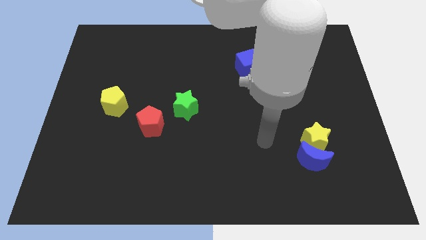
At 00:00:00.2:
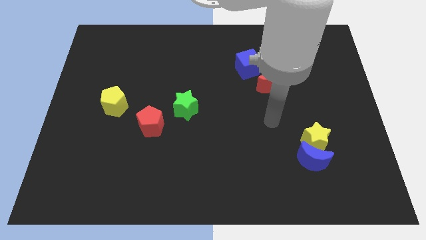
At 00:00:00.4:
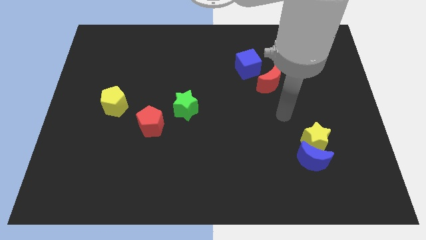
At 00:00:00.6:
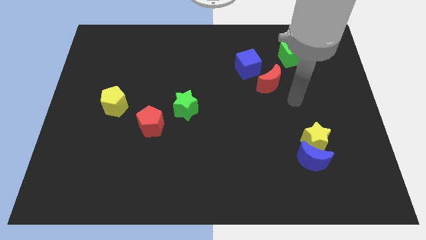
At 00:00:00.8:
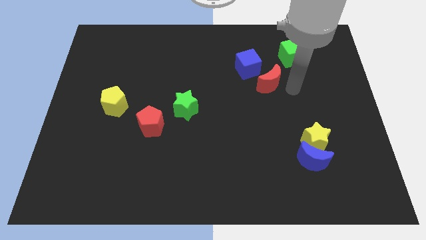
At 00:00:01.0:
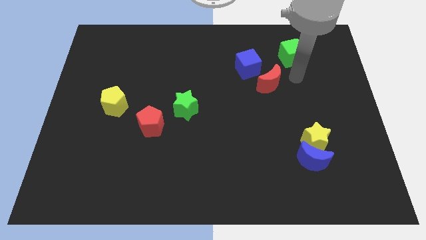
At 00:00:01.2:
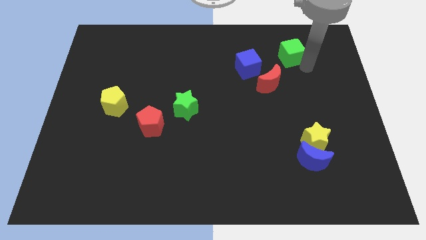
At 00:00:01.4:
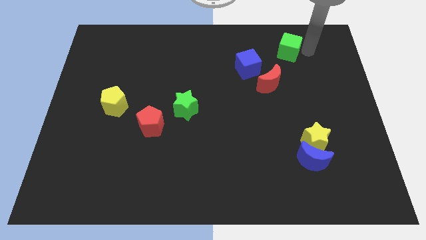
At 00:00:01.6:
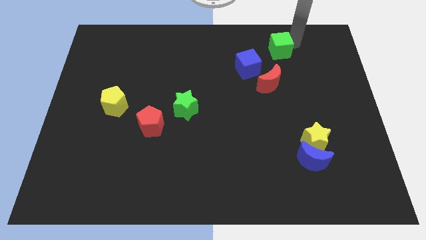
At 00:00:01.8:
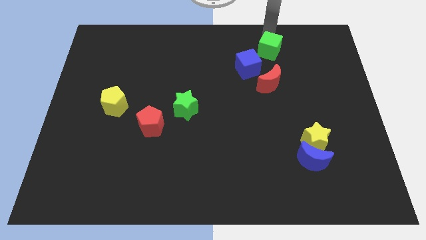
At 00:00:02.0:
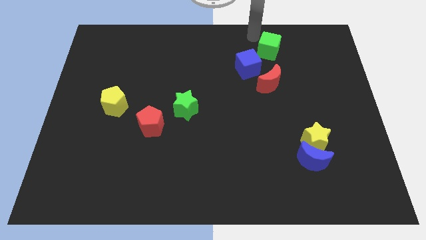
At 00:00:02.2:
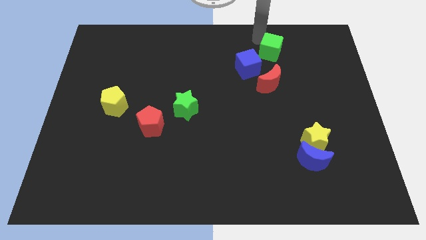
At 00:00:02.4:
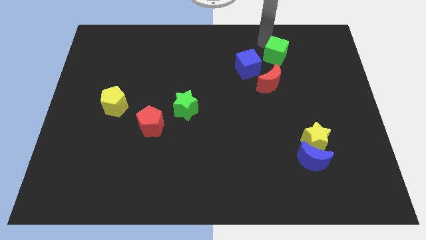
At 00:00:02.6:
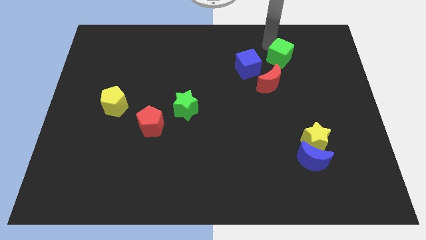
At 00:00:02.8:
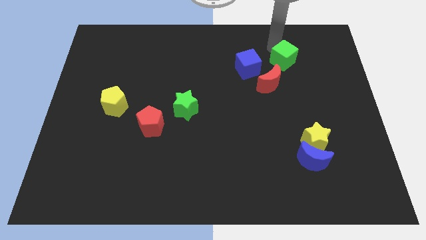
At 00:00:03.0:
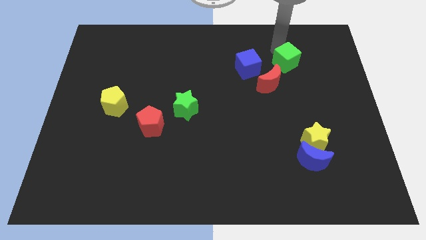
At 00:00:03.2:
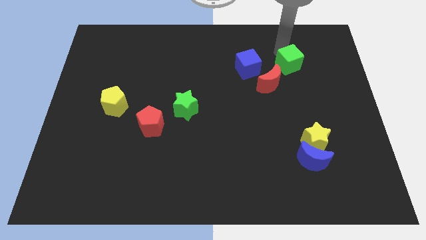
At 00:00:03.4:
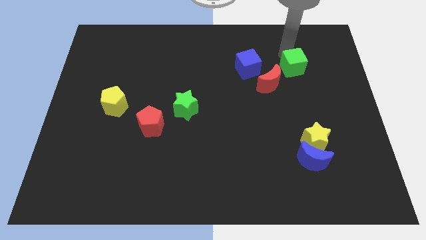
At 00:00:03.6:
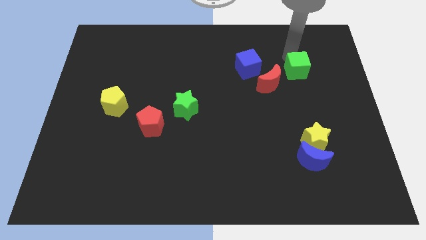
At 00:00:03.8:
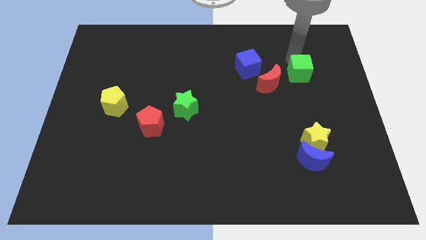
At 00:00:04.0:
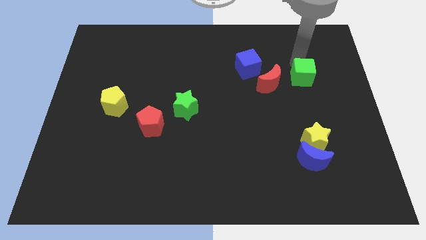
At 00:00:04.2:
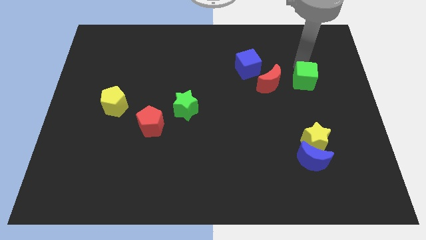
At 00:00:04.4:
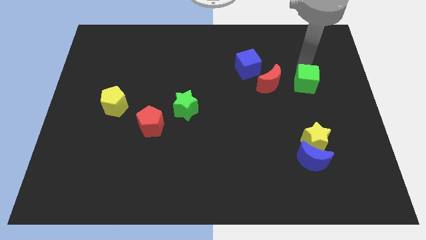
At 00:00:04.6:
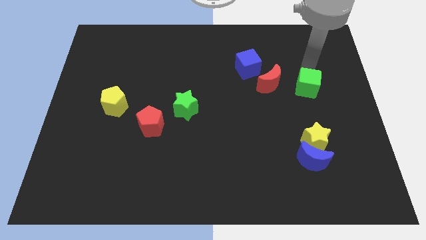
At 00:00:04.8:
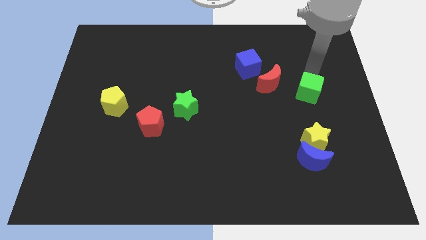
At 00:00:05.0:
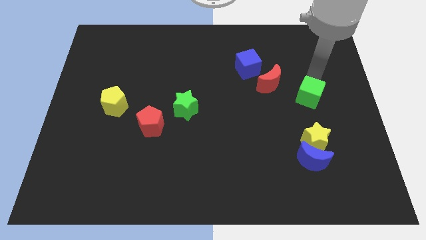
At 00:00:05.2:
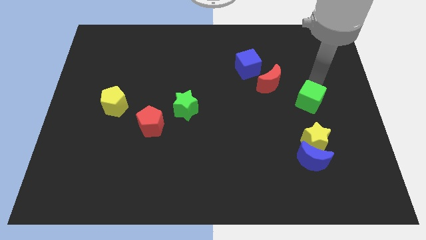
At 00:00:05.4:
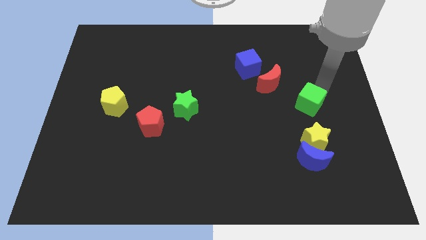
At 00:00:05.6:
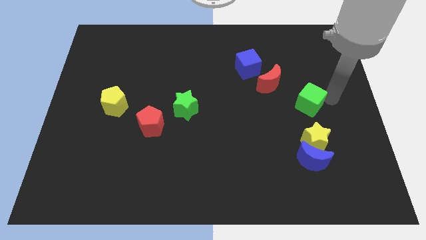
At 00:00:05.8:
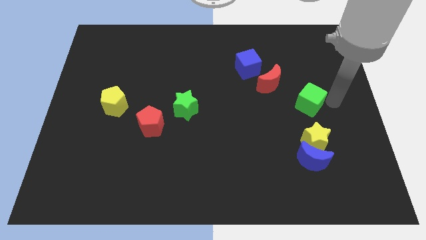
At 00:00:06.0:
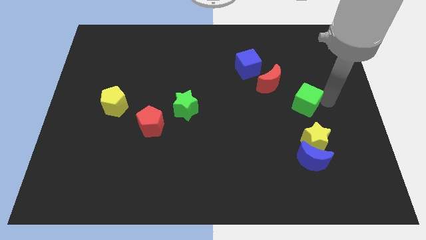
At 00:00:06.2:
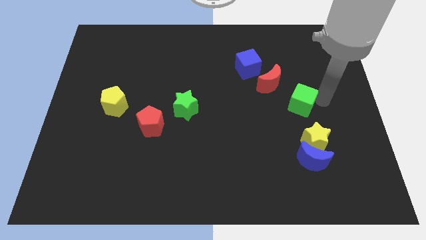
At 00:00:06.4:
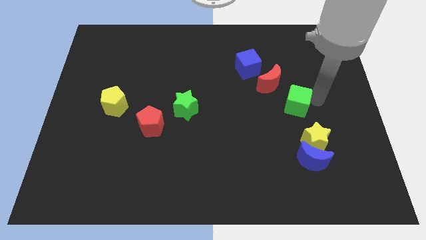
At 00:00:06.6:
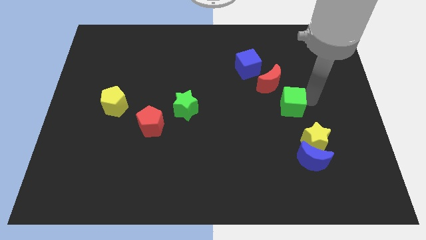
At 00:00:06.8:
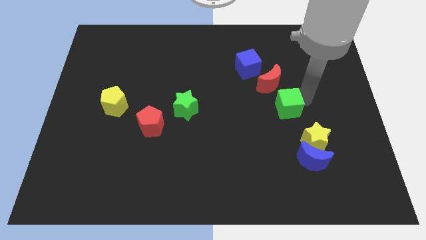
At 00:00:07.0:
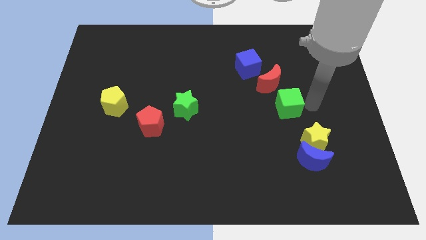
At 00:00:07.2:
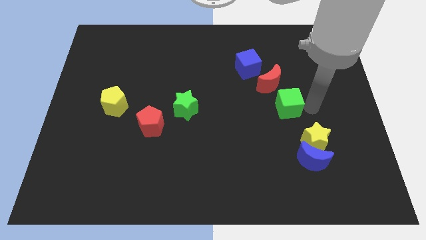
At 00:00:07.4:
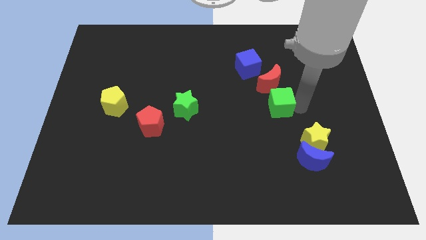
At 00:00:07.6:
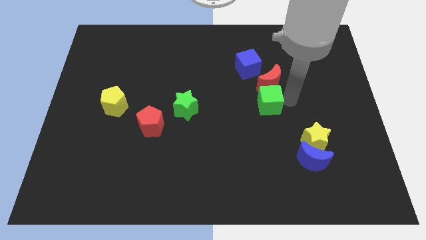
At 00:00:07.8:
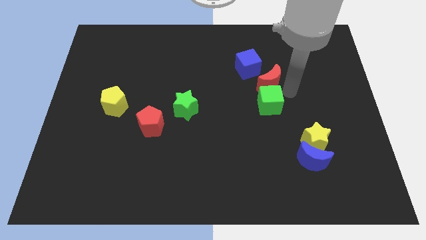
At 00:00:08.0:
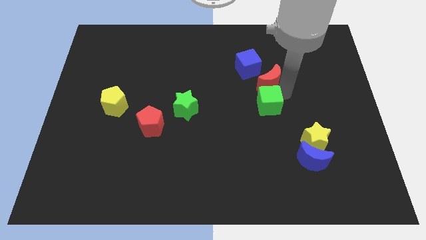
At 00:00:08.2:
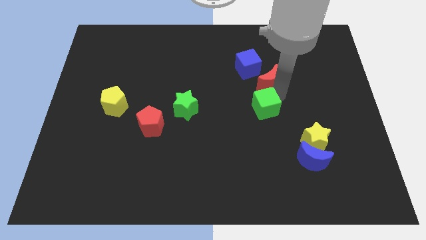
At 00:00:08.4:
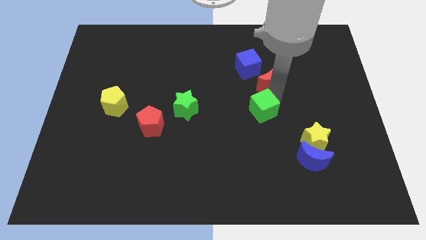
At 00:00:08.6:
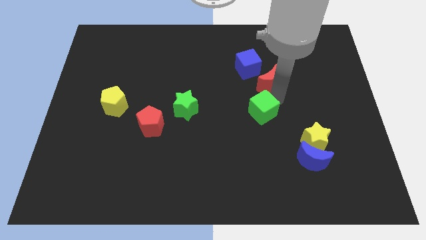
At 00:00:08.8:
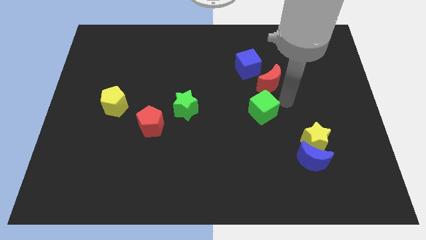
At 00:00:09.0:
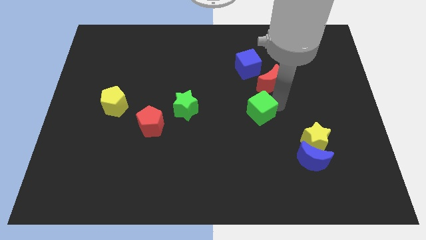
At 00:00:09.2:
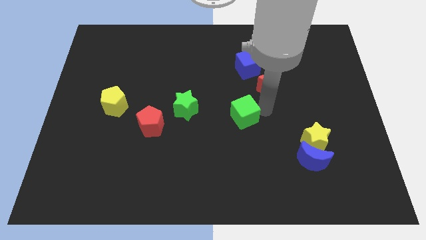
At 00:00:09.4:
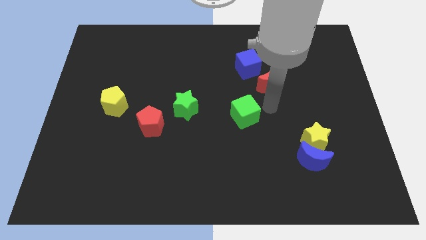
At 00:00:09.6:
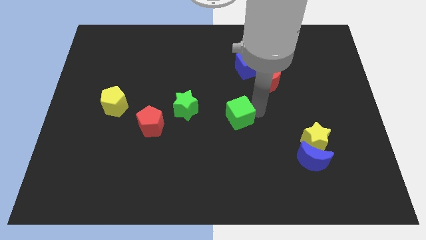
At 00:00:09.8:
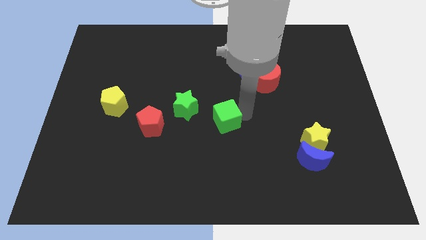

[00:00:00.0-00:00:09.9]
put the green cube to the bottom right of the green star

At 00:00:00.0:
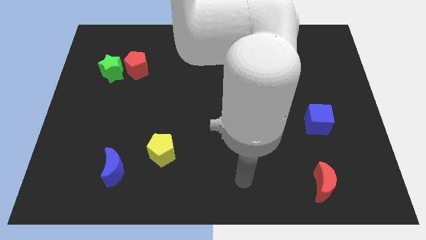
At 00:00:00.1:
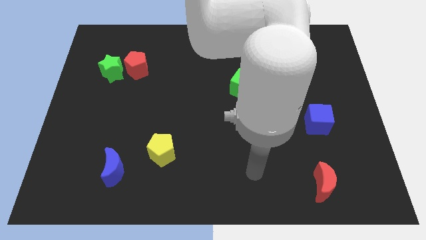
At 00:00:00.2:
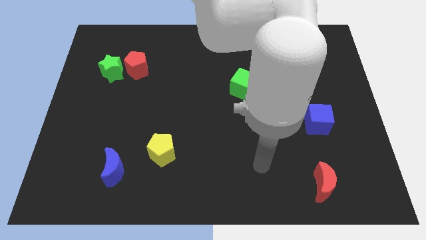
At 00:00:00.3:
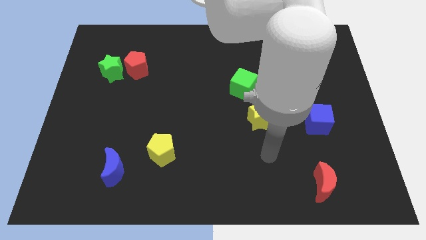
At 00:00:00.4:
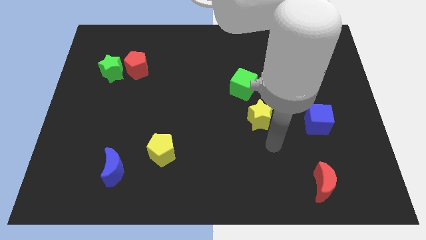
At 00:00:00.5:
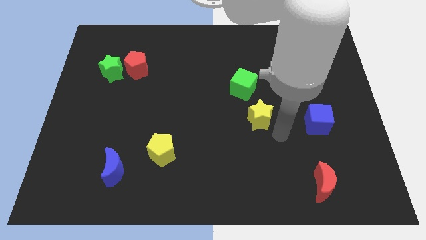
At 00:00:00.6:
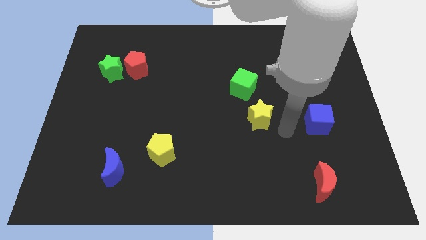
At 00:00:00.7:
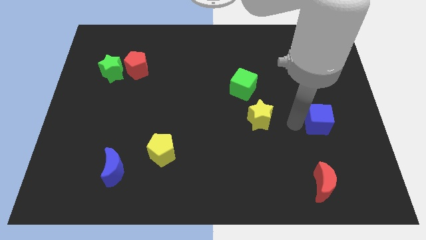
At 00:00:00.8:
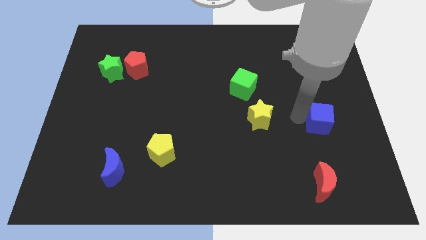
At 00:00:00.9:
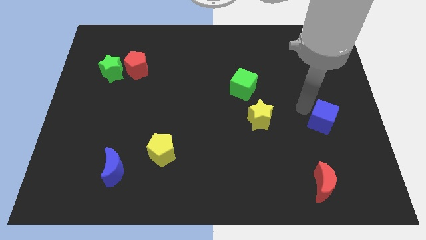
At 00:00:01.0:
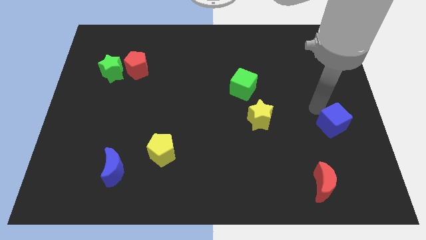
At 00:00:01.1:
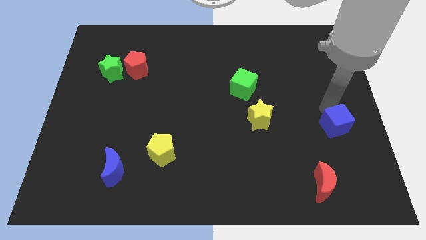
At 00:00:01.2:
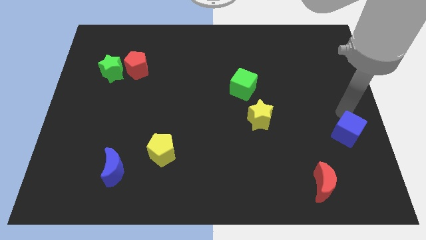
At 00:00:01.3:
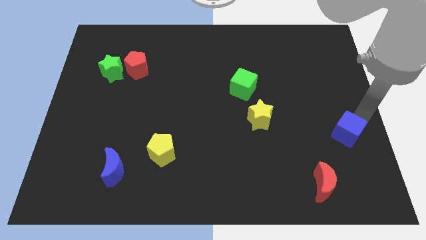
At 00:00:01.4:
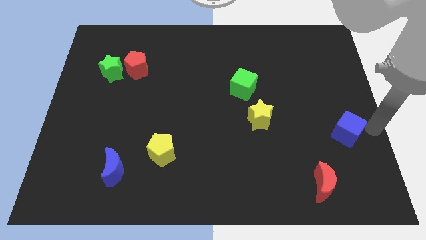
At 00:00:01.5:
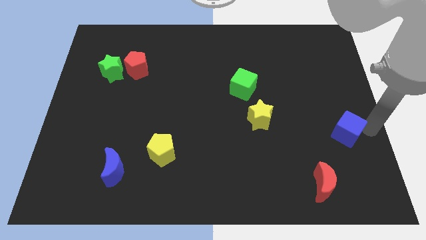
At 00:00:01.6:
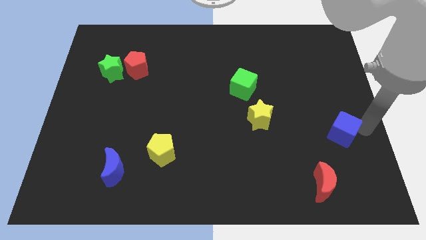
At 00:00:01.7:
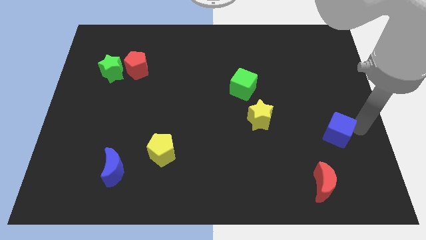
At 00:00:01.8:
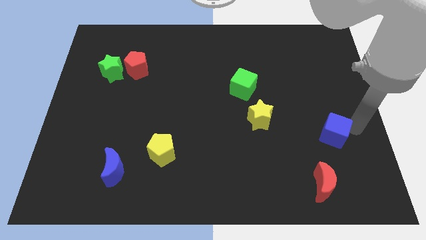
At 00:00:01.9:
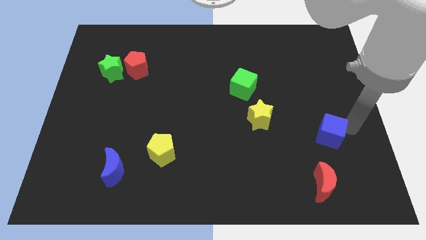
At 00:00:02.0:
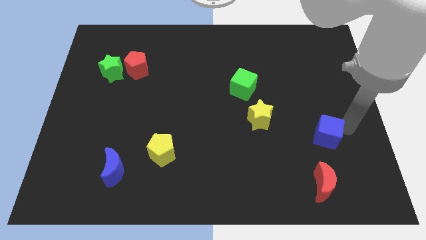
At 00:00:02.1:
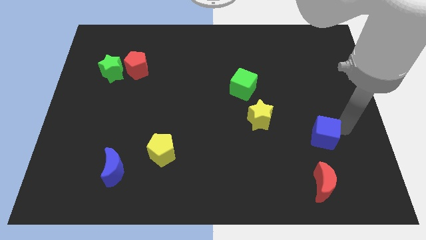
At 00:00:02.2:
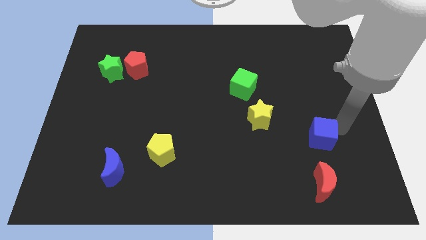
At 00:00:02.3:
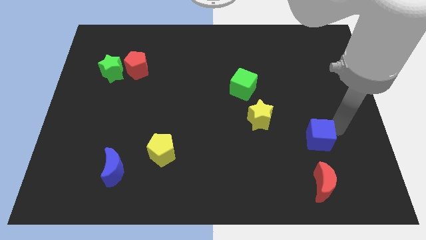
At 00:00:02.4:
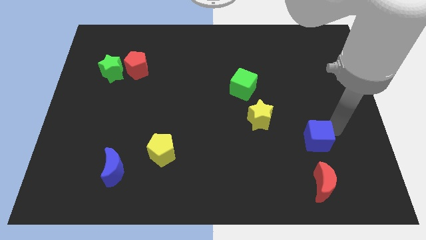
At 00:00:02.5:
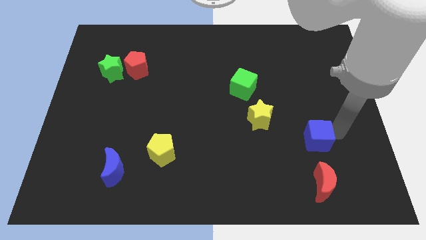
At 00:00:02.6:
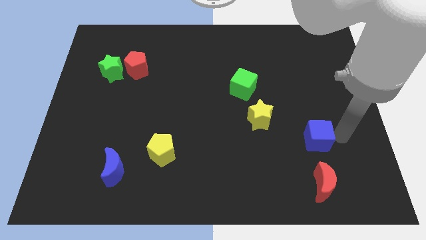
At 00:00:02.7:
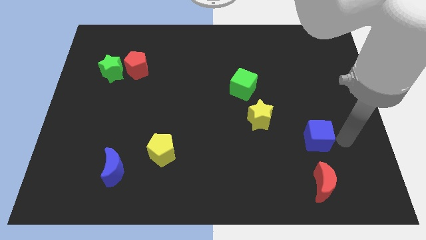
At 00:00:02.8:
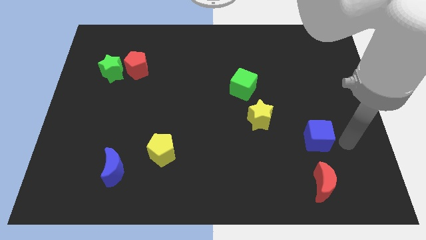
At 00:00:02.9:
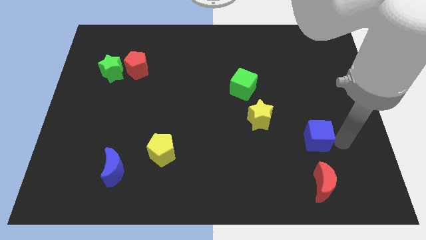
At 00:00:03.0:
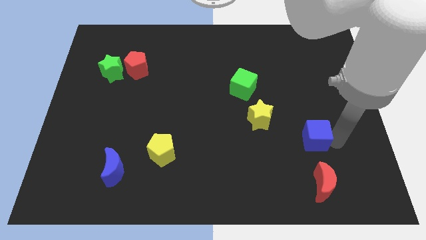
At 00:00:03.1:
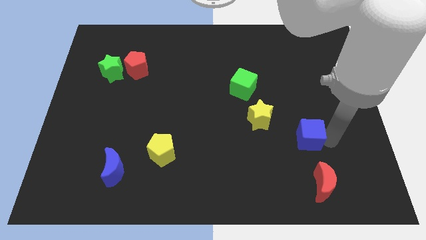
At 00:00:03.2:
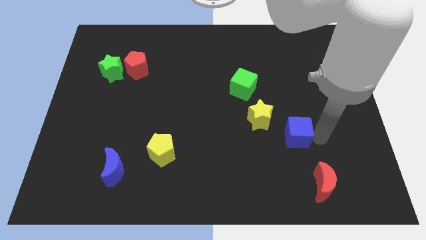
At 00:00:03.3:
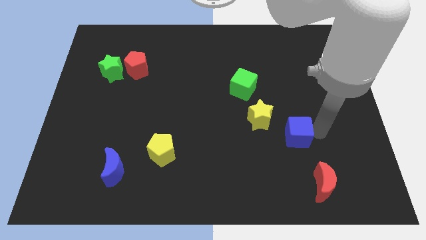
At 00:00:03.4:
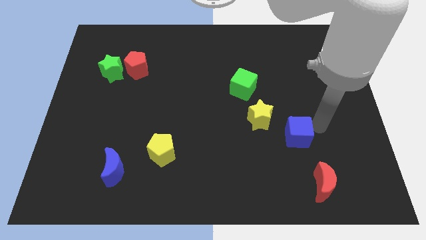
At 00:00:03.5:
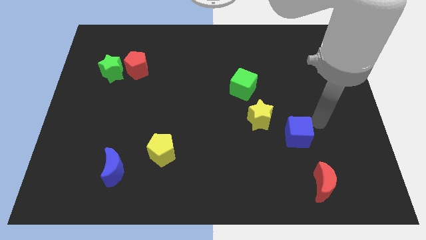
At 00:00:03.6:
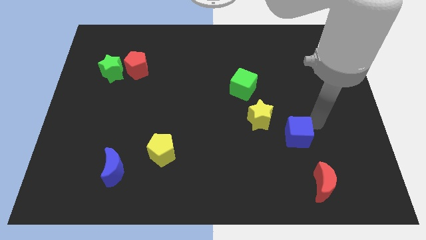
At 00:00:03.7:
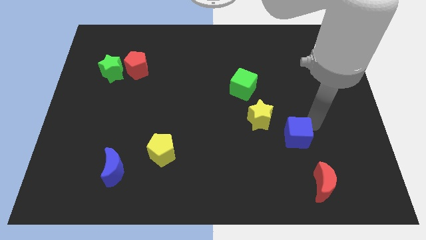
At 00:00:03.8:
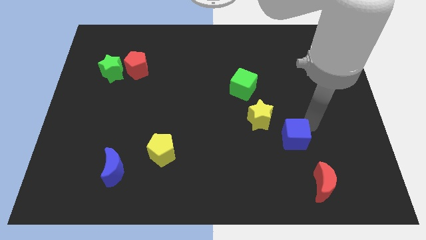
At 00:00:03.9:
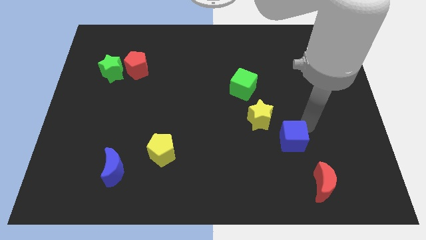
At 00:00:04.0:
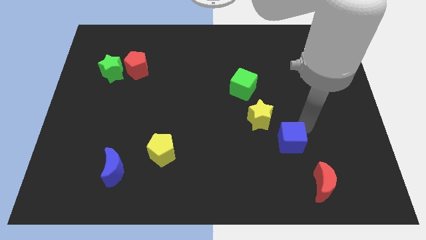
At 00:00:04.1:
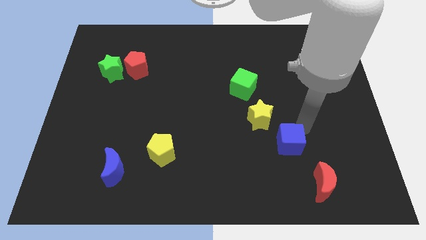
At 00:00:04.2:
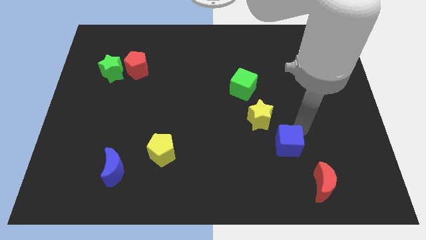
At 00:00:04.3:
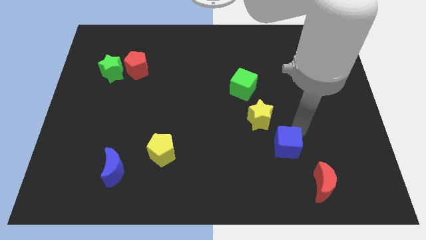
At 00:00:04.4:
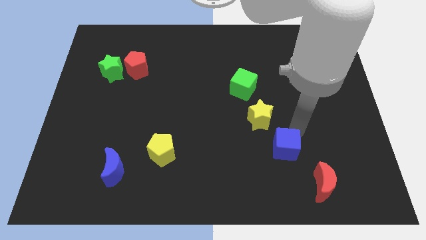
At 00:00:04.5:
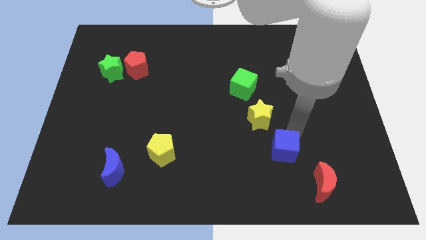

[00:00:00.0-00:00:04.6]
push the blue cube to the bottom of the yellow star
